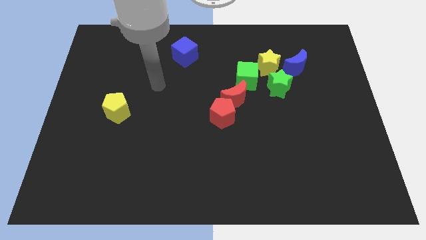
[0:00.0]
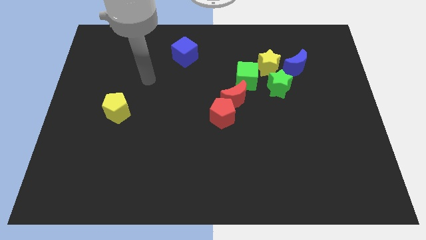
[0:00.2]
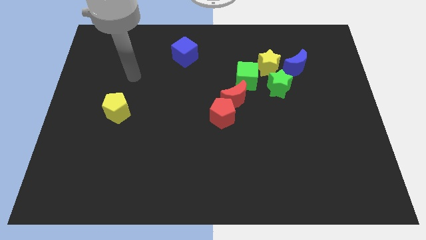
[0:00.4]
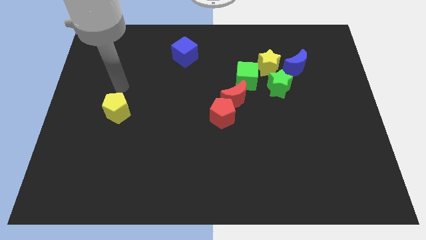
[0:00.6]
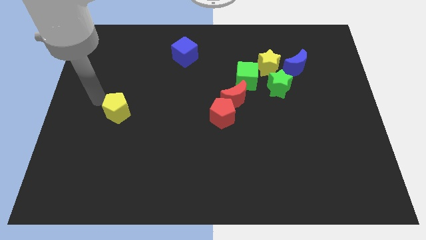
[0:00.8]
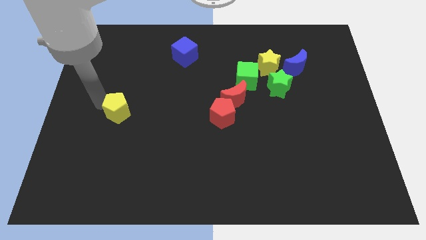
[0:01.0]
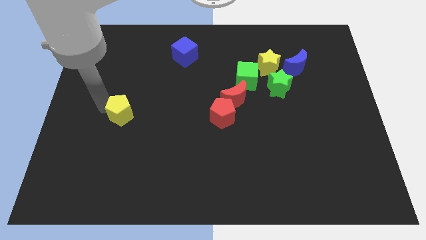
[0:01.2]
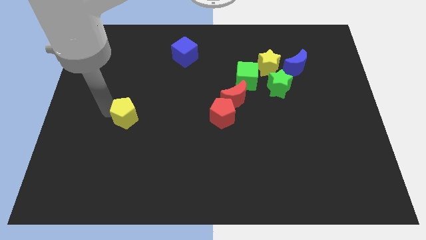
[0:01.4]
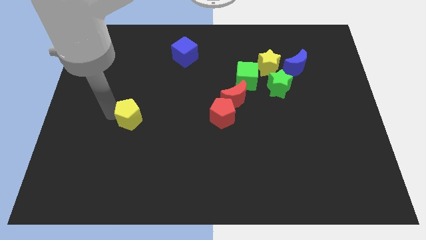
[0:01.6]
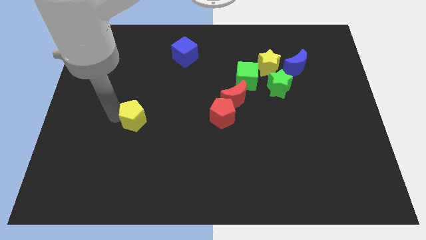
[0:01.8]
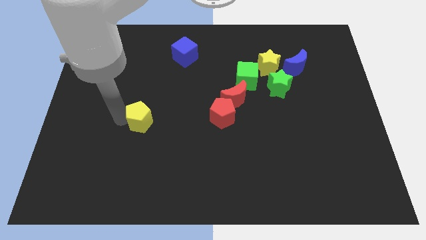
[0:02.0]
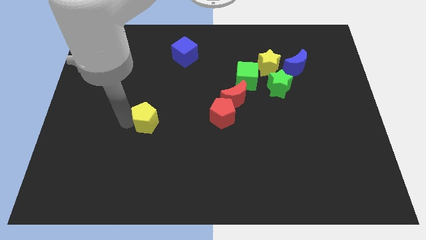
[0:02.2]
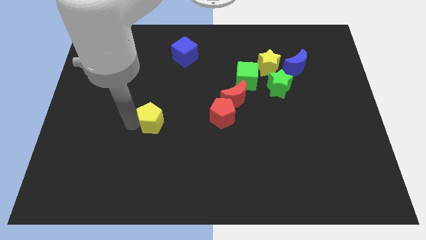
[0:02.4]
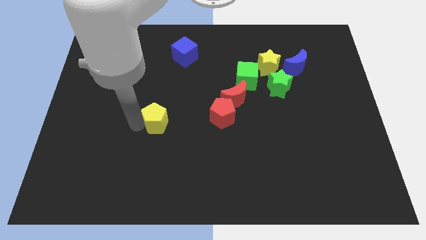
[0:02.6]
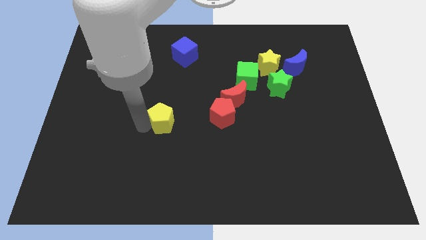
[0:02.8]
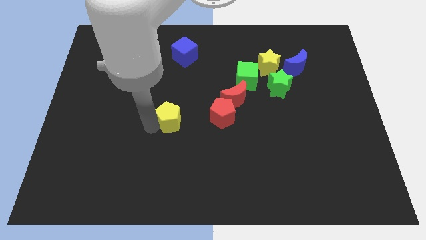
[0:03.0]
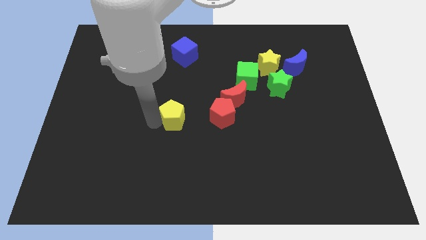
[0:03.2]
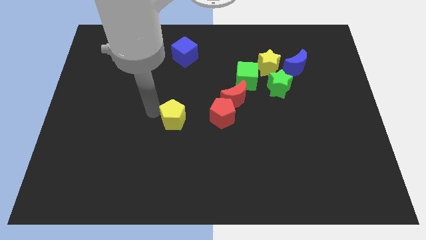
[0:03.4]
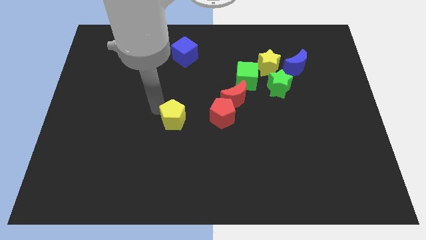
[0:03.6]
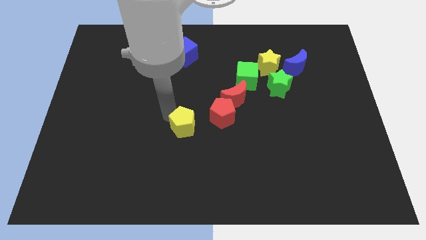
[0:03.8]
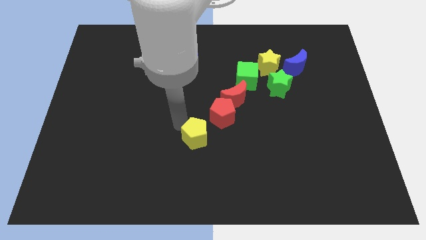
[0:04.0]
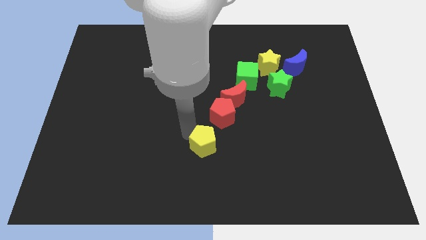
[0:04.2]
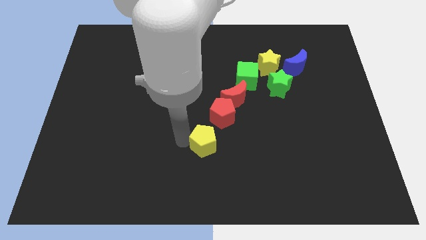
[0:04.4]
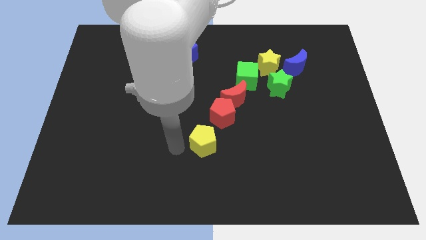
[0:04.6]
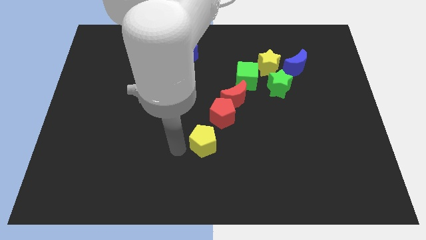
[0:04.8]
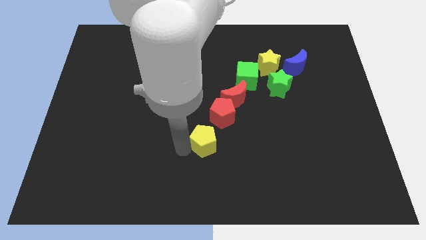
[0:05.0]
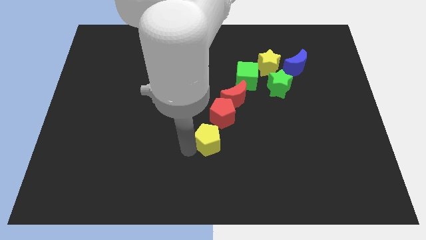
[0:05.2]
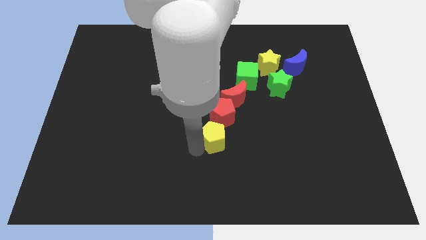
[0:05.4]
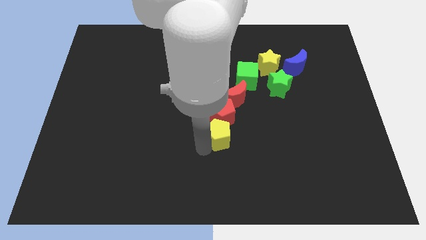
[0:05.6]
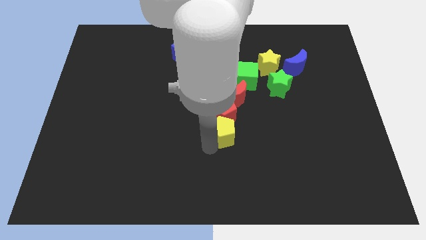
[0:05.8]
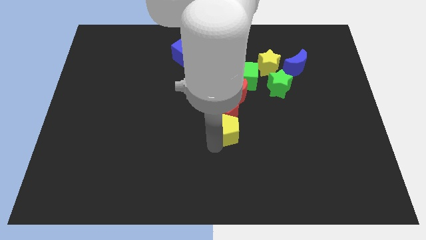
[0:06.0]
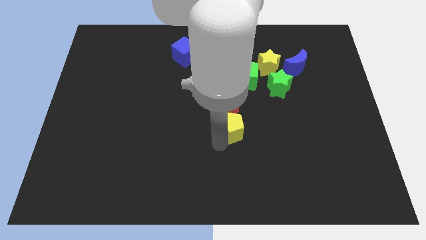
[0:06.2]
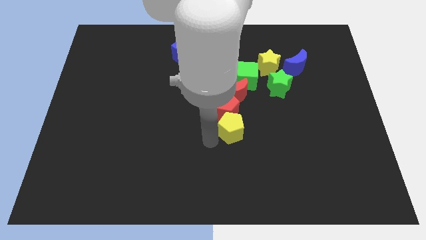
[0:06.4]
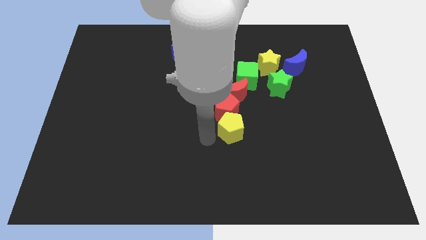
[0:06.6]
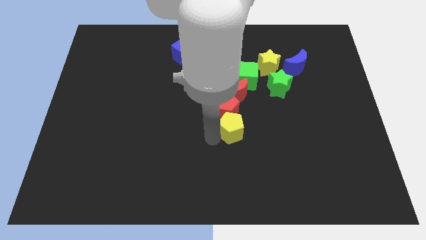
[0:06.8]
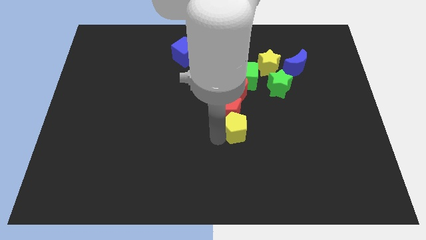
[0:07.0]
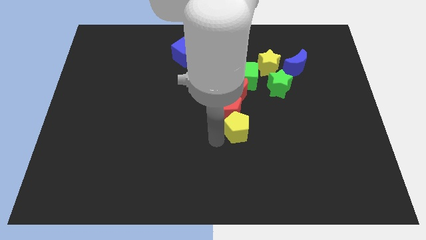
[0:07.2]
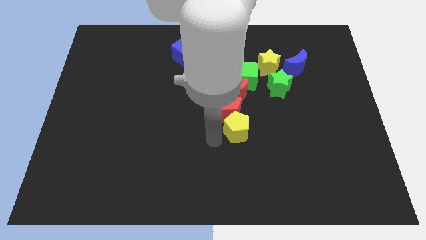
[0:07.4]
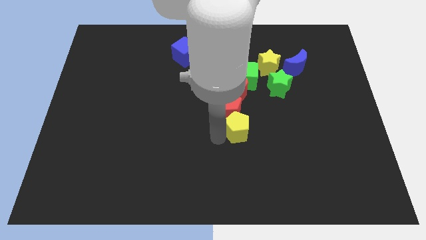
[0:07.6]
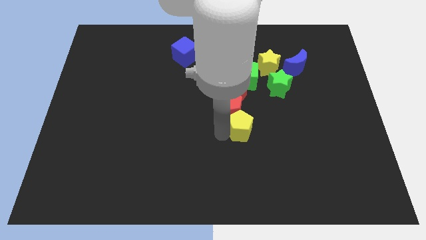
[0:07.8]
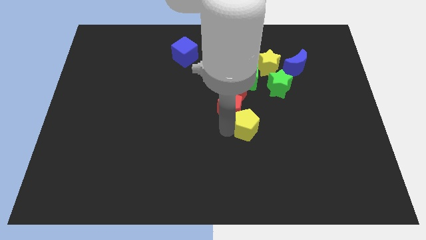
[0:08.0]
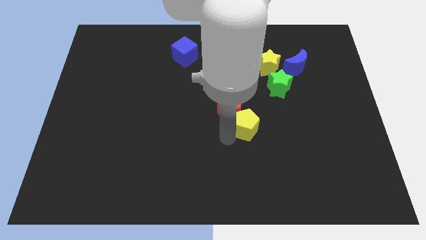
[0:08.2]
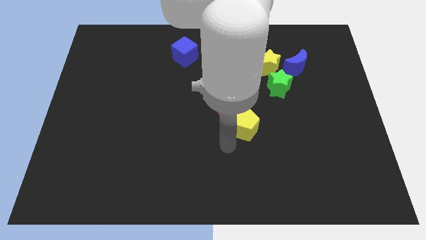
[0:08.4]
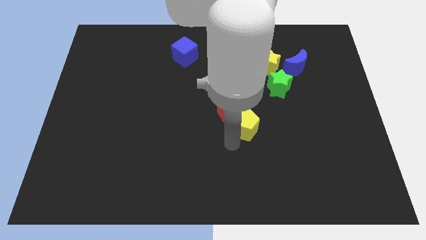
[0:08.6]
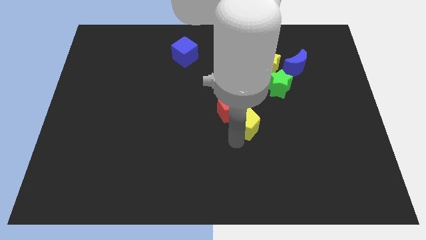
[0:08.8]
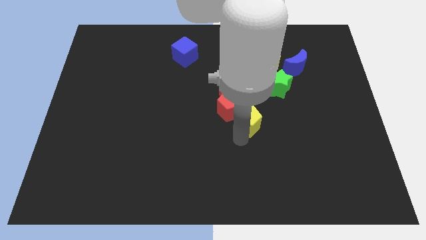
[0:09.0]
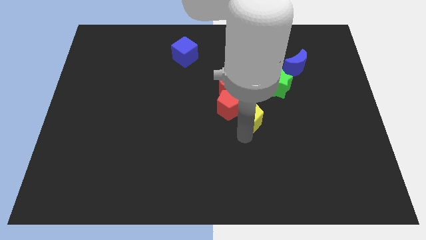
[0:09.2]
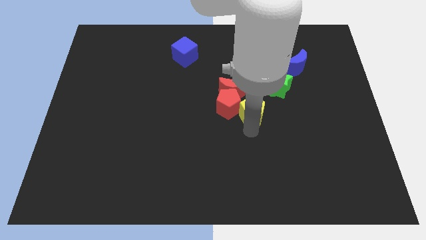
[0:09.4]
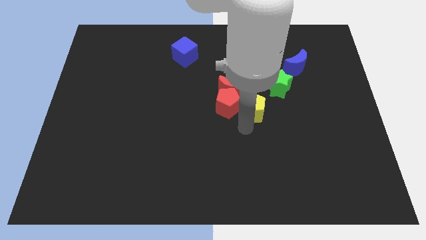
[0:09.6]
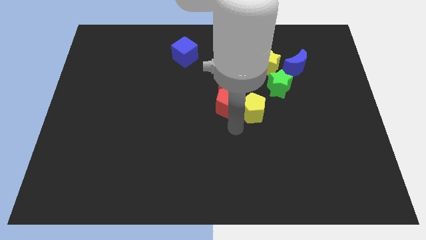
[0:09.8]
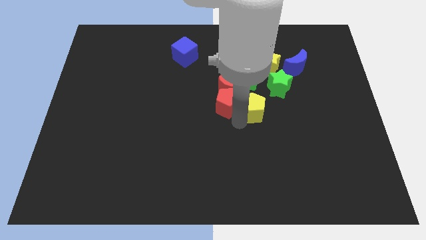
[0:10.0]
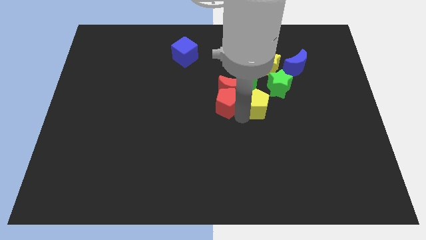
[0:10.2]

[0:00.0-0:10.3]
slide the yellow pentagon to the right of the red moon

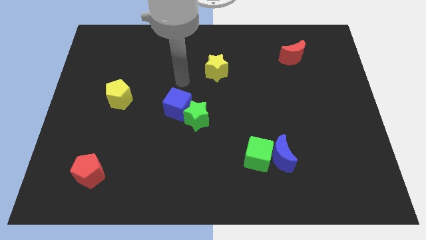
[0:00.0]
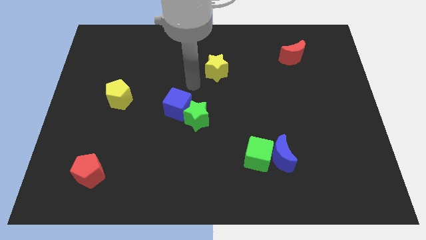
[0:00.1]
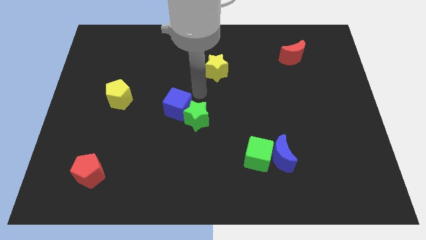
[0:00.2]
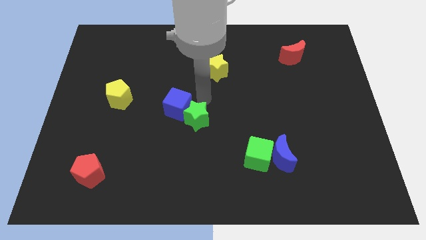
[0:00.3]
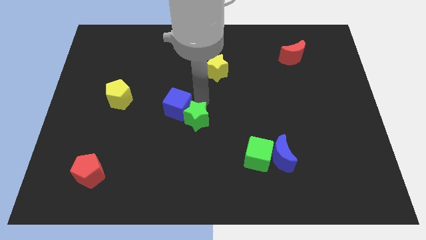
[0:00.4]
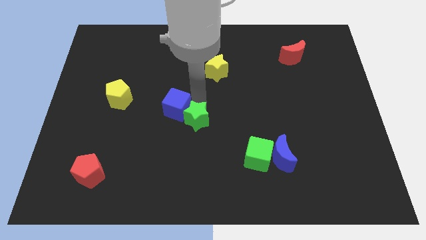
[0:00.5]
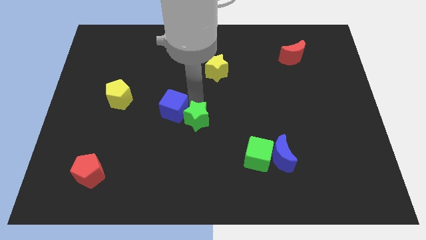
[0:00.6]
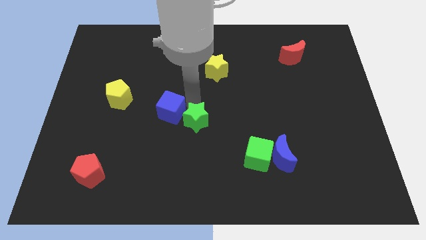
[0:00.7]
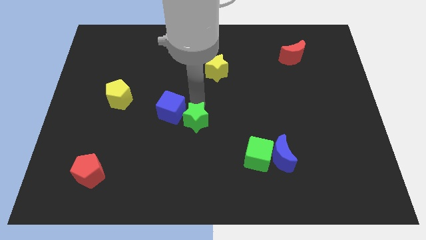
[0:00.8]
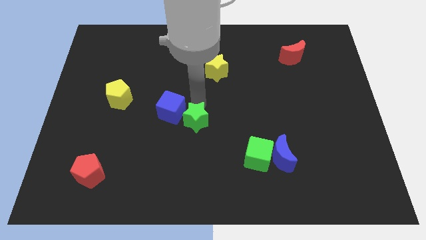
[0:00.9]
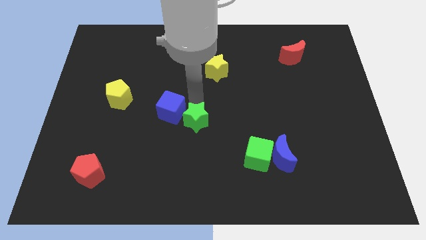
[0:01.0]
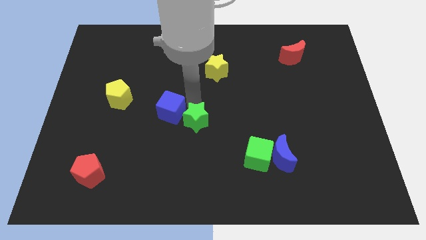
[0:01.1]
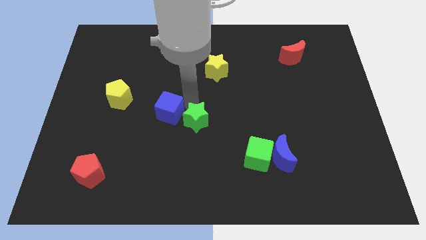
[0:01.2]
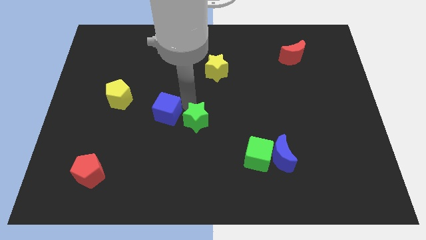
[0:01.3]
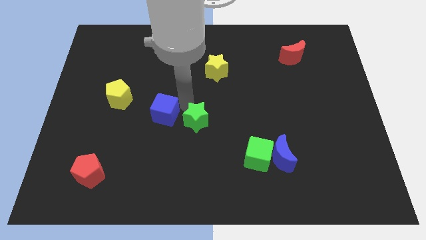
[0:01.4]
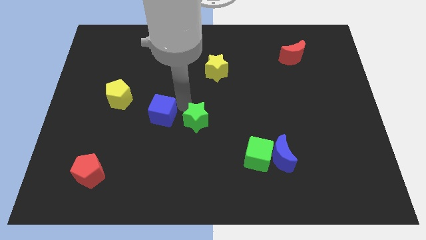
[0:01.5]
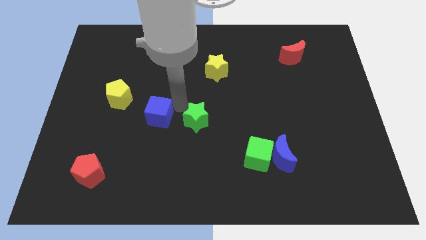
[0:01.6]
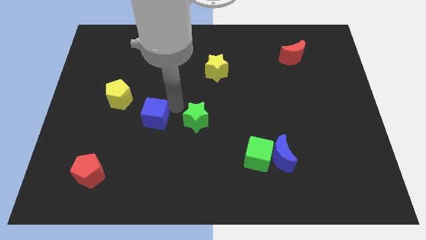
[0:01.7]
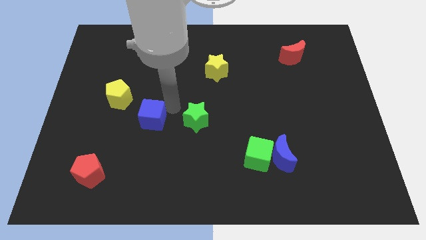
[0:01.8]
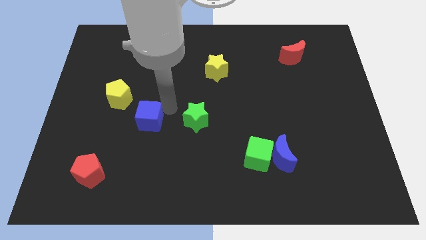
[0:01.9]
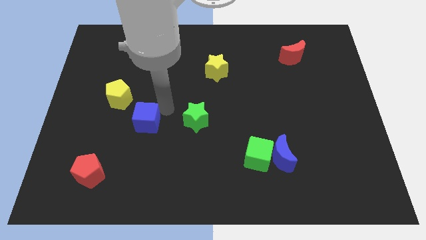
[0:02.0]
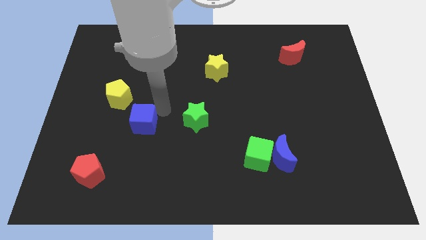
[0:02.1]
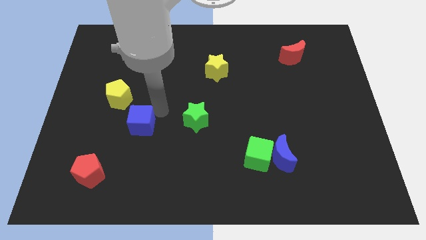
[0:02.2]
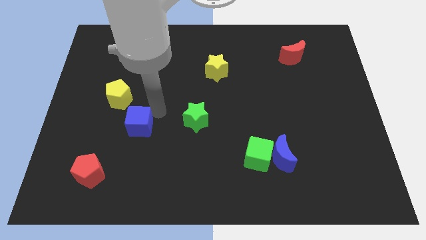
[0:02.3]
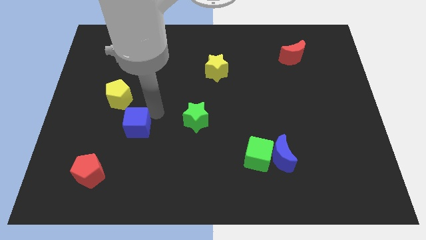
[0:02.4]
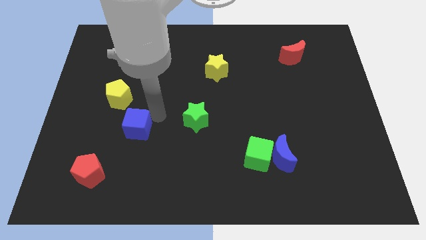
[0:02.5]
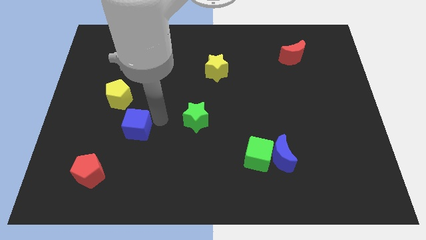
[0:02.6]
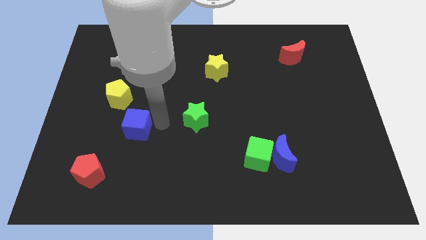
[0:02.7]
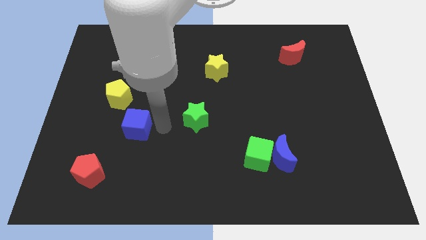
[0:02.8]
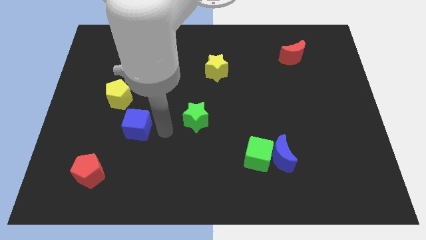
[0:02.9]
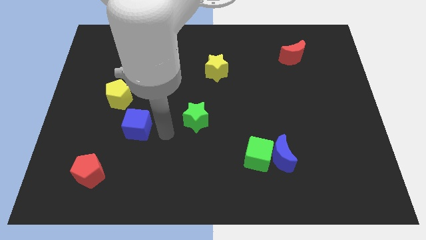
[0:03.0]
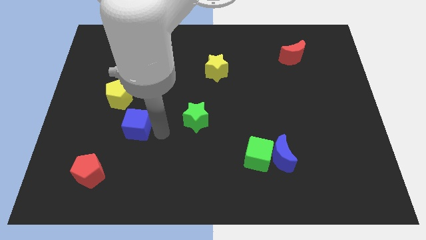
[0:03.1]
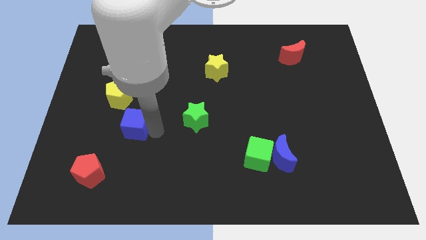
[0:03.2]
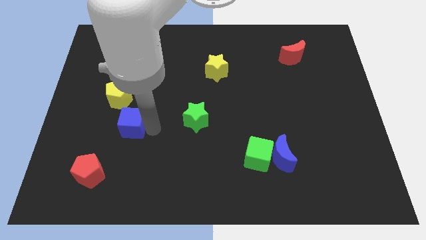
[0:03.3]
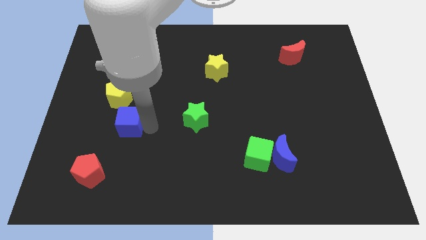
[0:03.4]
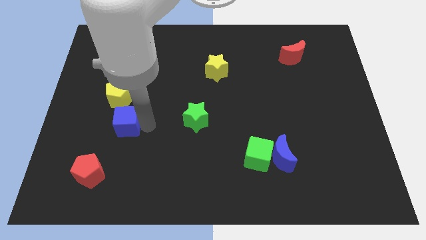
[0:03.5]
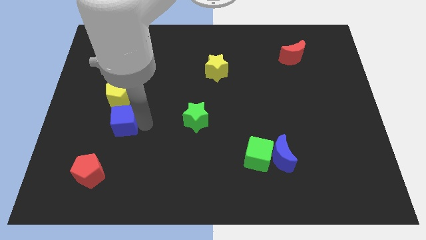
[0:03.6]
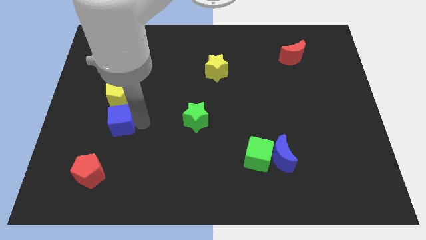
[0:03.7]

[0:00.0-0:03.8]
push the blue cube above the red pentagon
